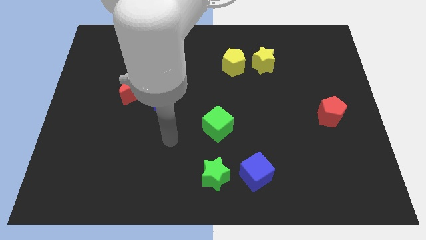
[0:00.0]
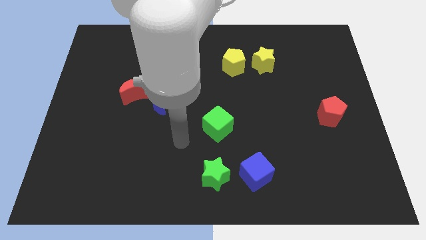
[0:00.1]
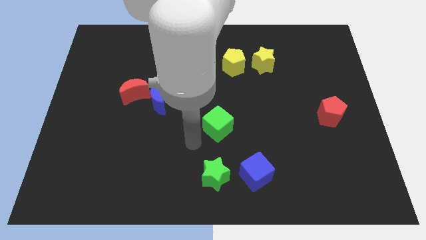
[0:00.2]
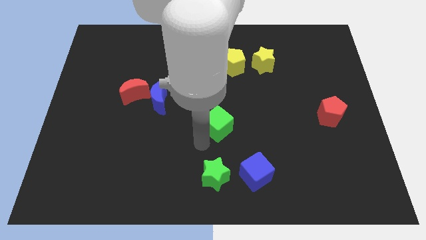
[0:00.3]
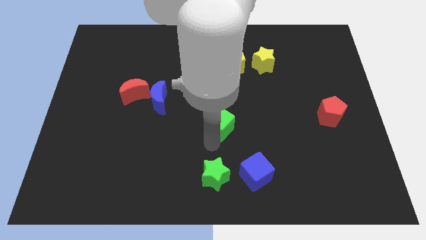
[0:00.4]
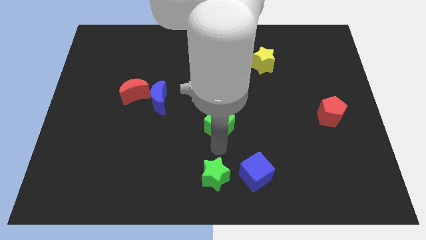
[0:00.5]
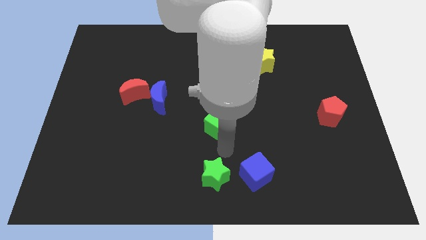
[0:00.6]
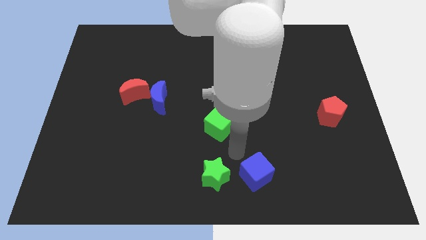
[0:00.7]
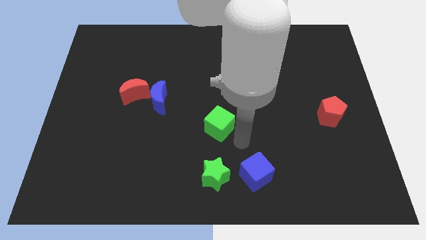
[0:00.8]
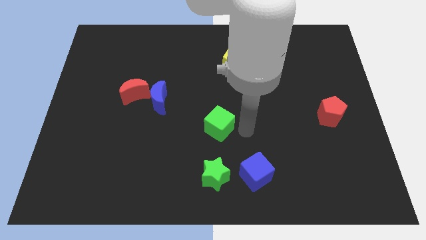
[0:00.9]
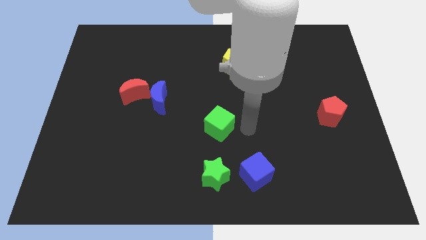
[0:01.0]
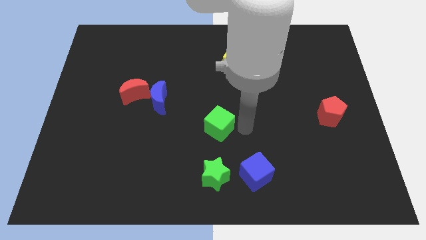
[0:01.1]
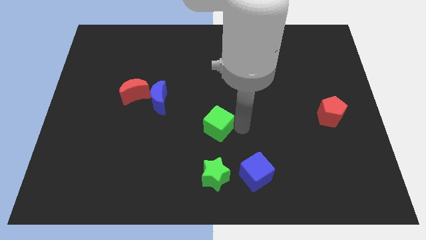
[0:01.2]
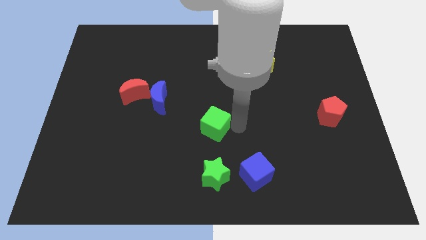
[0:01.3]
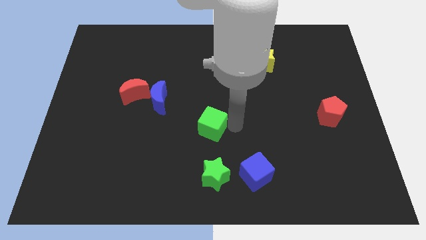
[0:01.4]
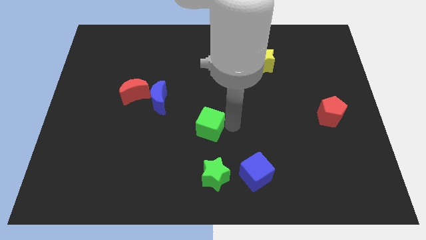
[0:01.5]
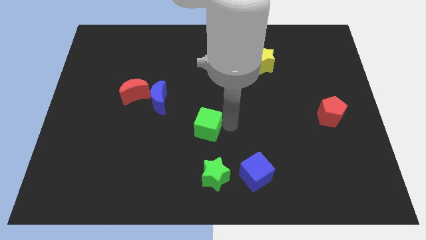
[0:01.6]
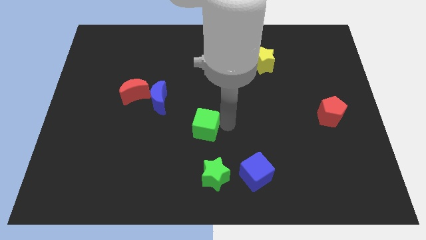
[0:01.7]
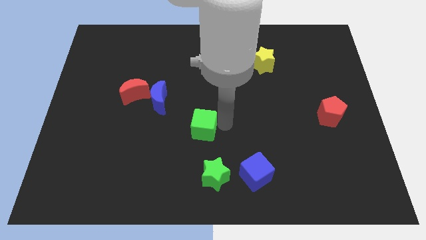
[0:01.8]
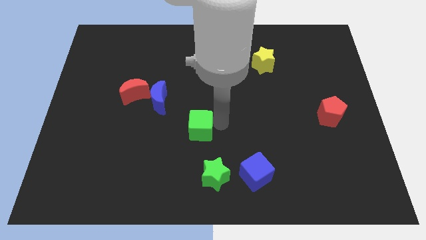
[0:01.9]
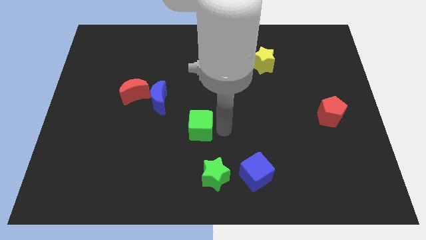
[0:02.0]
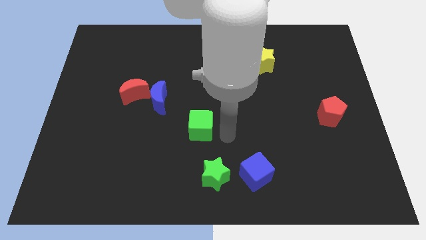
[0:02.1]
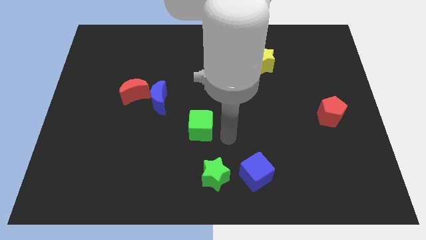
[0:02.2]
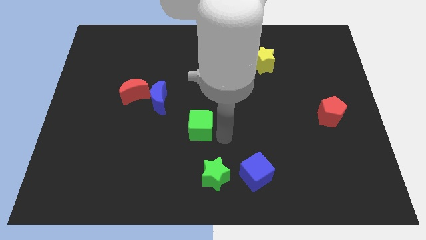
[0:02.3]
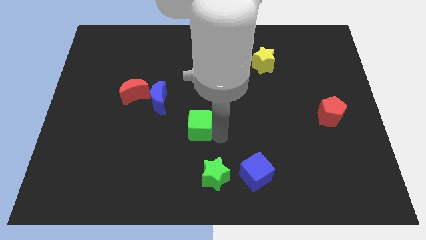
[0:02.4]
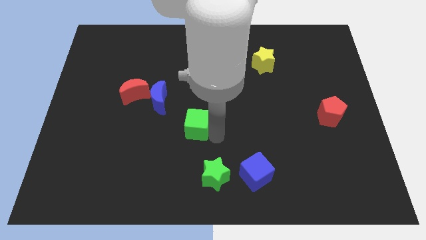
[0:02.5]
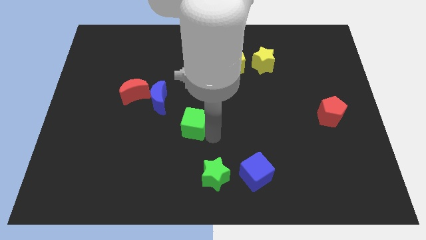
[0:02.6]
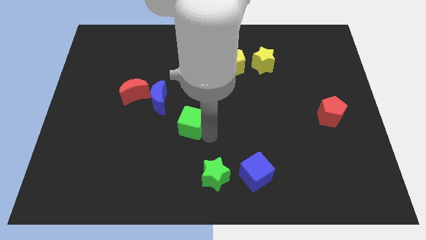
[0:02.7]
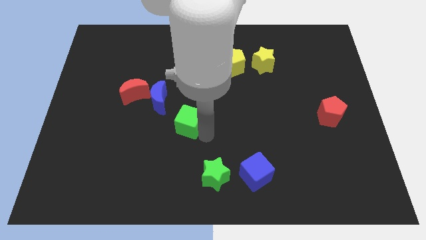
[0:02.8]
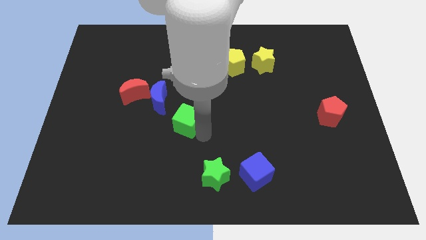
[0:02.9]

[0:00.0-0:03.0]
slightly slide the green cube to the left

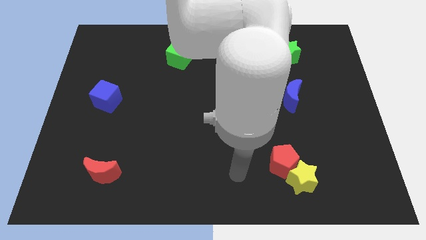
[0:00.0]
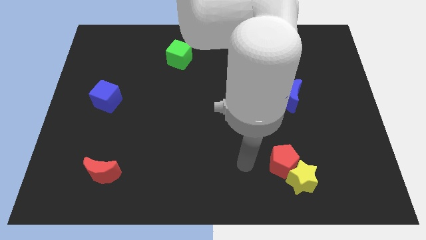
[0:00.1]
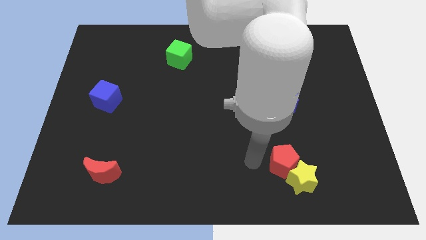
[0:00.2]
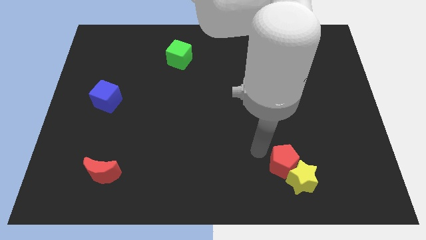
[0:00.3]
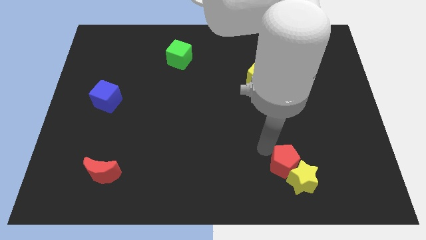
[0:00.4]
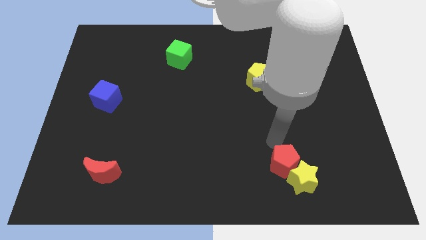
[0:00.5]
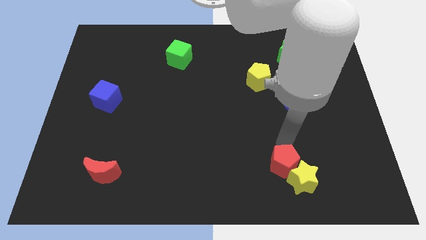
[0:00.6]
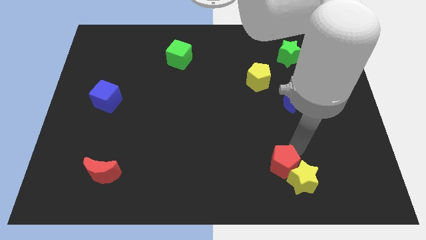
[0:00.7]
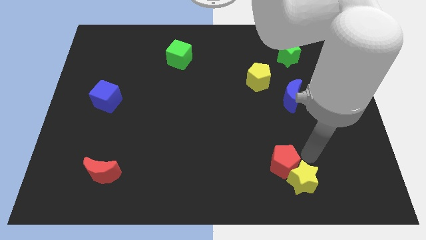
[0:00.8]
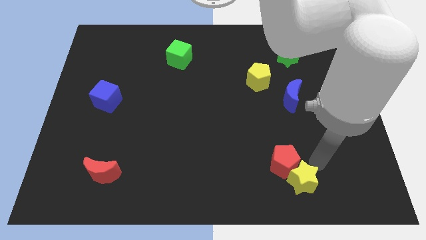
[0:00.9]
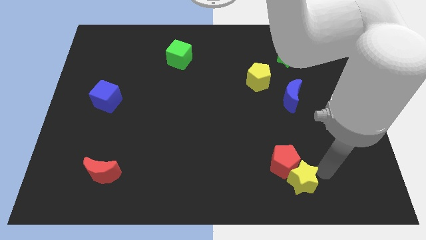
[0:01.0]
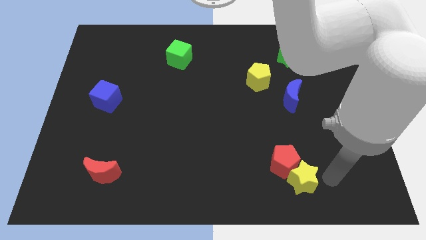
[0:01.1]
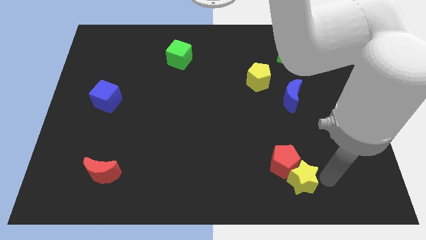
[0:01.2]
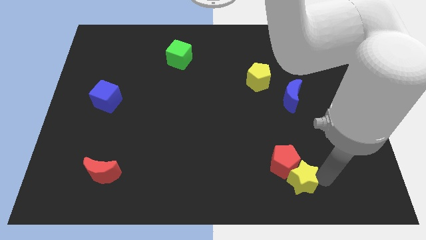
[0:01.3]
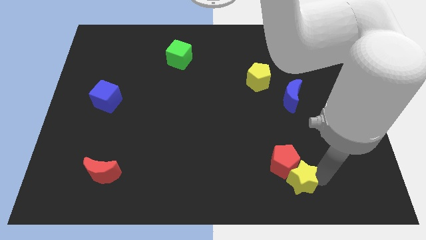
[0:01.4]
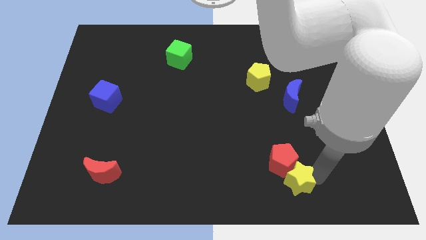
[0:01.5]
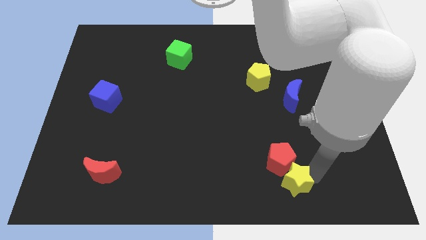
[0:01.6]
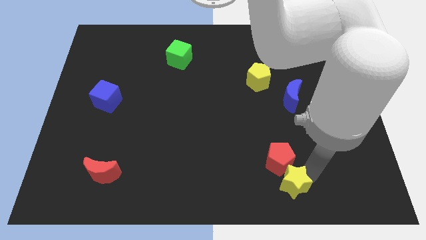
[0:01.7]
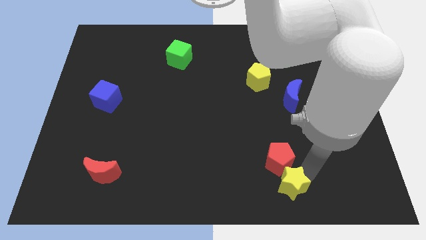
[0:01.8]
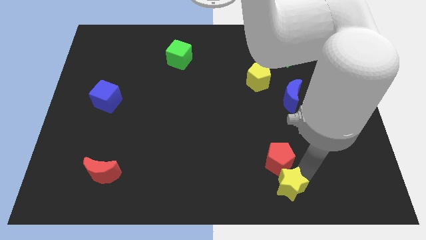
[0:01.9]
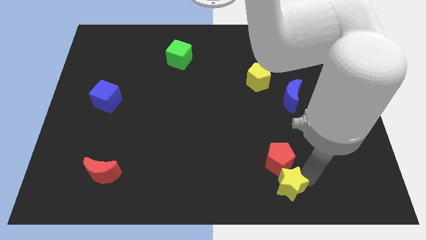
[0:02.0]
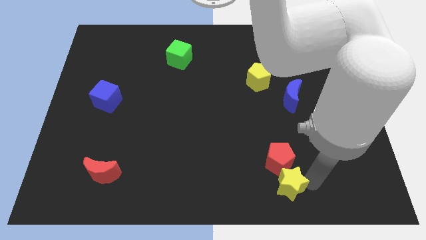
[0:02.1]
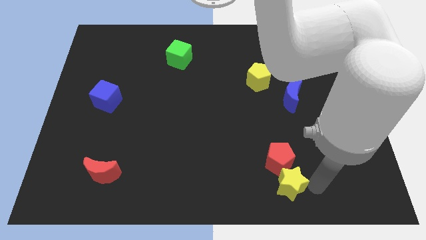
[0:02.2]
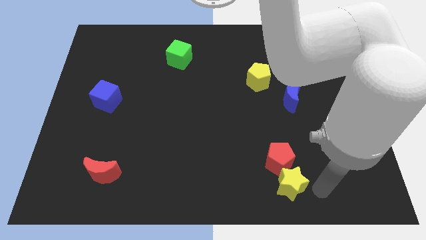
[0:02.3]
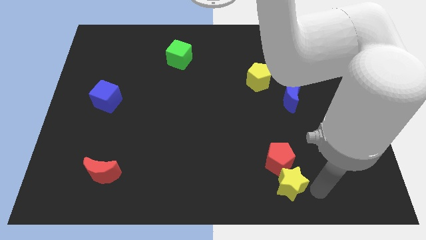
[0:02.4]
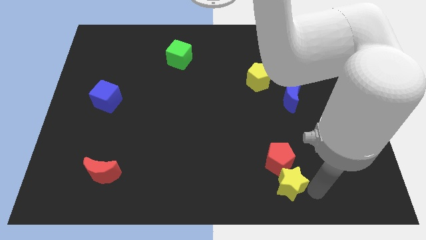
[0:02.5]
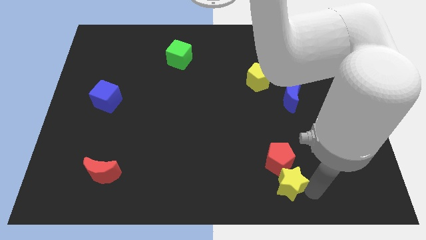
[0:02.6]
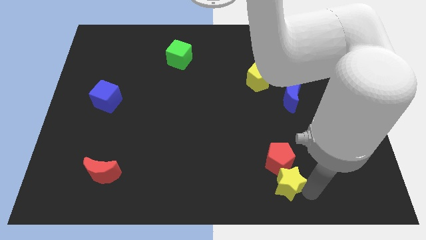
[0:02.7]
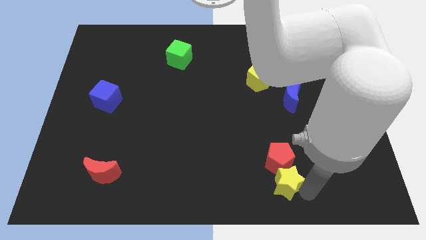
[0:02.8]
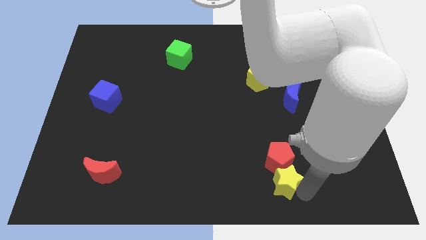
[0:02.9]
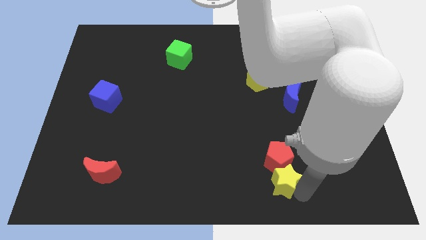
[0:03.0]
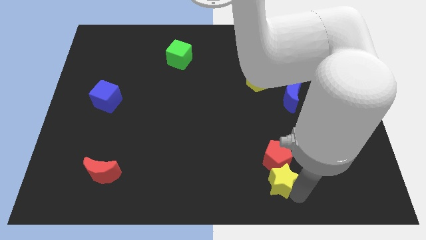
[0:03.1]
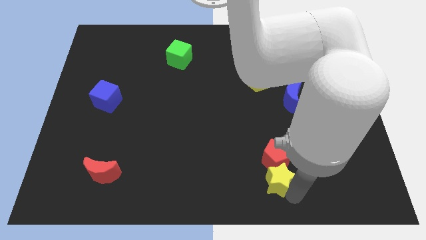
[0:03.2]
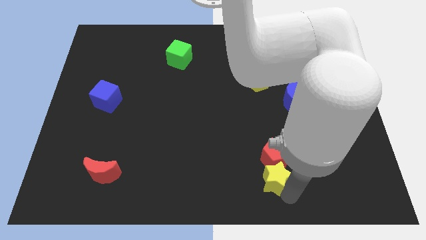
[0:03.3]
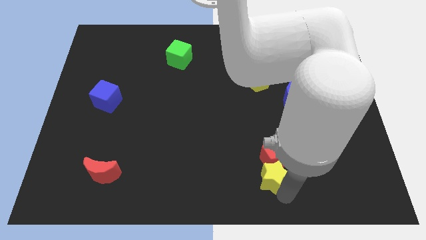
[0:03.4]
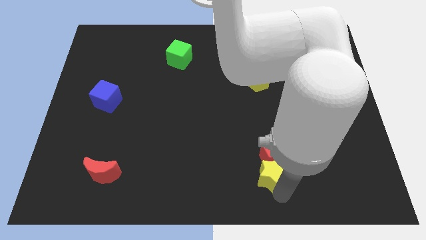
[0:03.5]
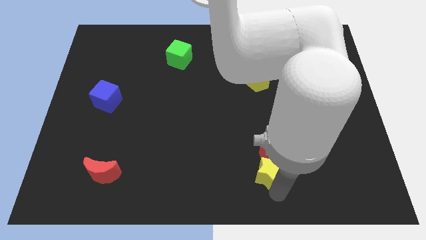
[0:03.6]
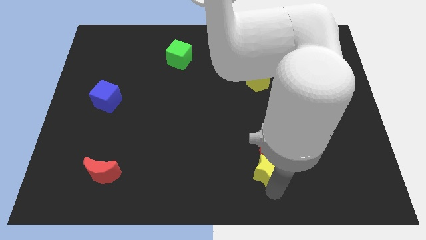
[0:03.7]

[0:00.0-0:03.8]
slide the yellow star a little bit to the left

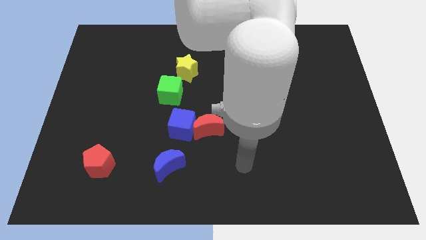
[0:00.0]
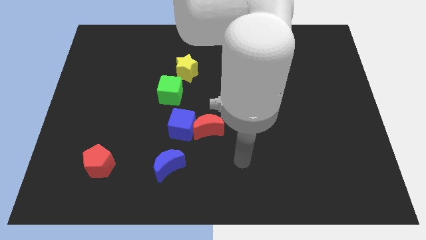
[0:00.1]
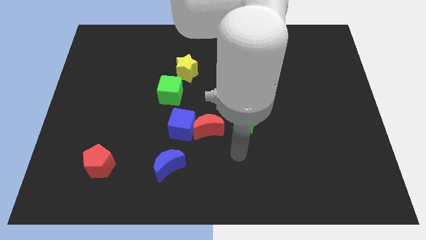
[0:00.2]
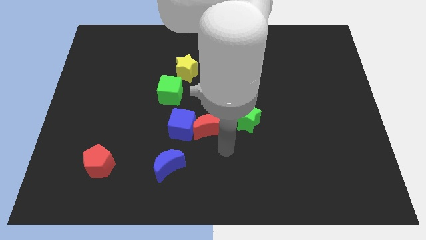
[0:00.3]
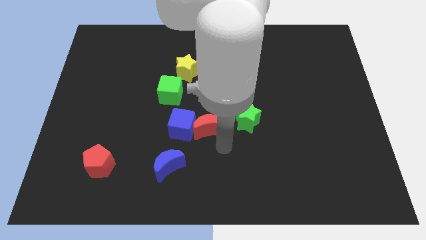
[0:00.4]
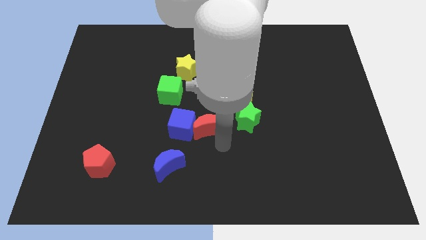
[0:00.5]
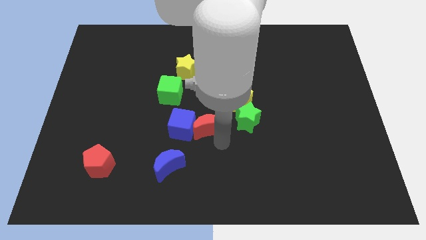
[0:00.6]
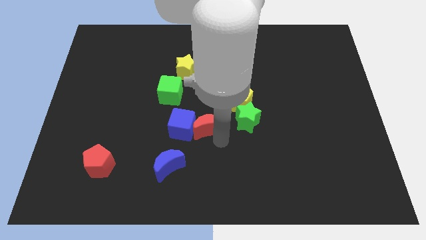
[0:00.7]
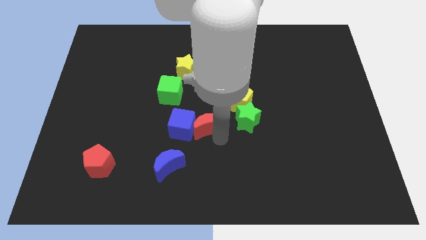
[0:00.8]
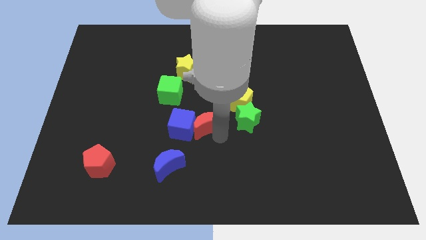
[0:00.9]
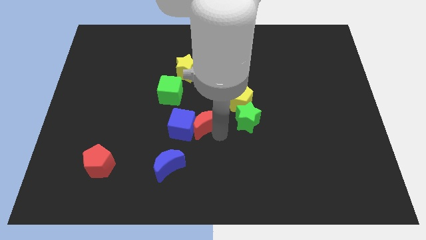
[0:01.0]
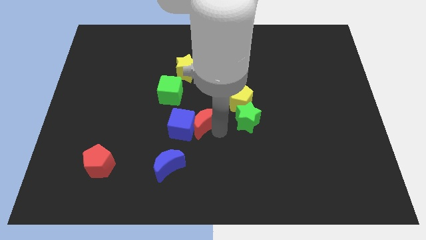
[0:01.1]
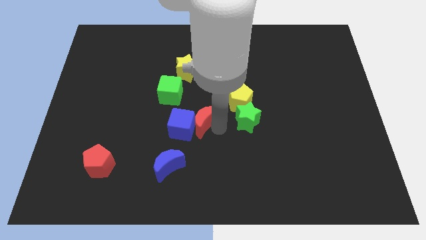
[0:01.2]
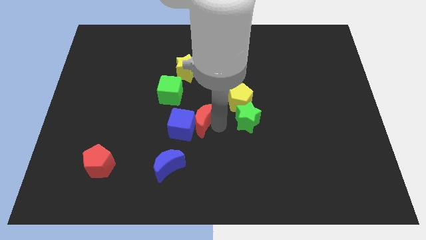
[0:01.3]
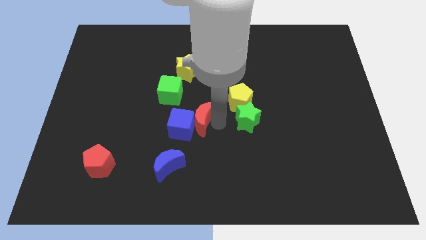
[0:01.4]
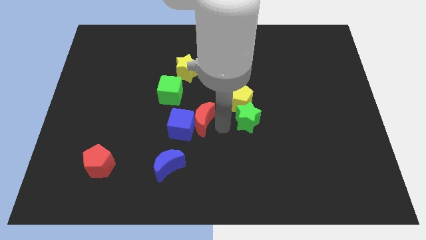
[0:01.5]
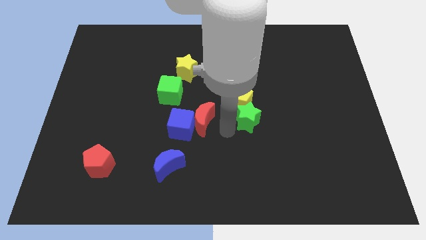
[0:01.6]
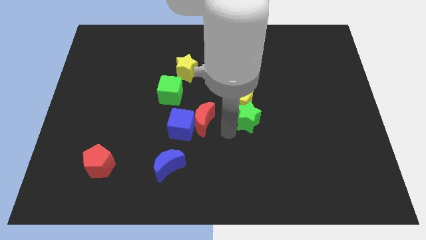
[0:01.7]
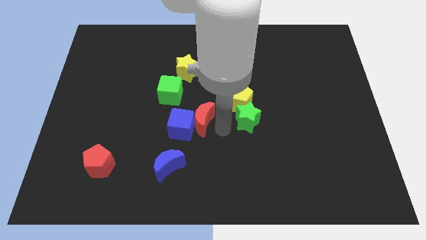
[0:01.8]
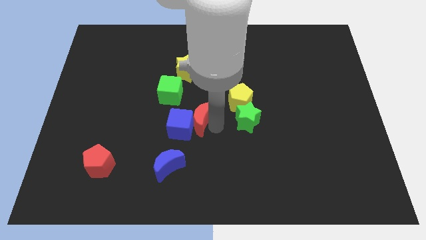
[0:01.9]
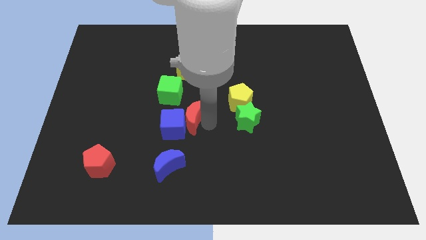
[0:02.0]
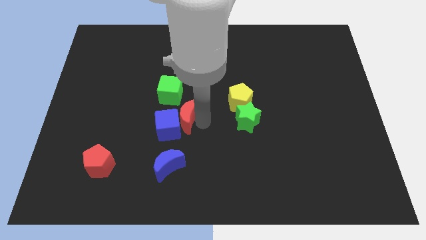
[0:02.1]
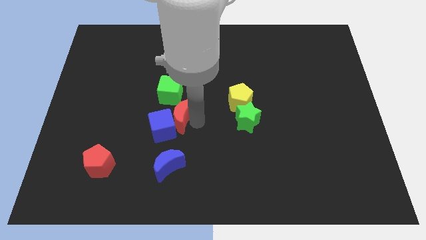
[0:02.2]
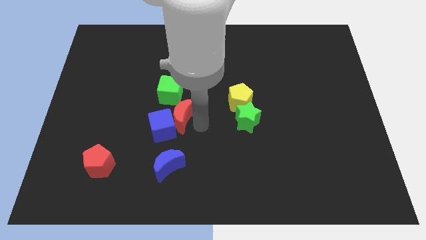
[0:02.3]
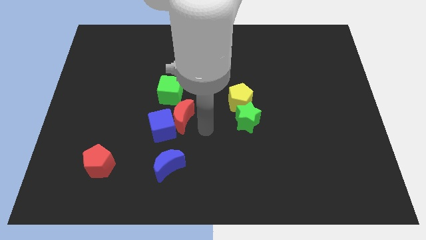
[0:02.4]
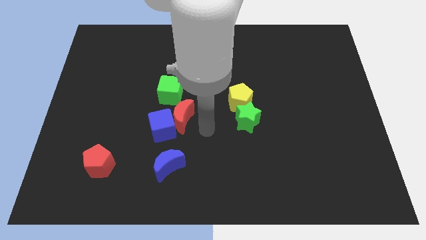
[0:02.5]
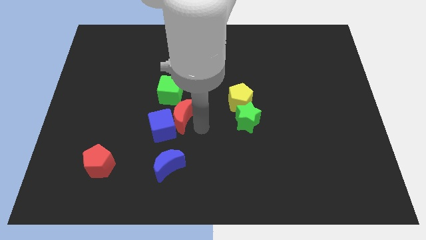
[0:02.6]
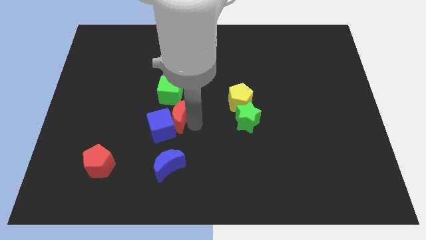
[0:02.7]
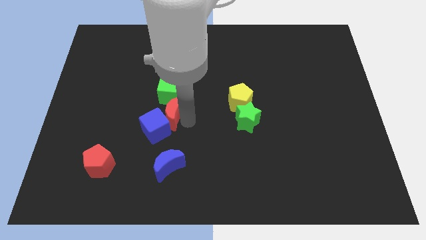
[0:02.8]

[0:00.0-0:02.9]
slightly slide the red moon upwards and then to the left
